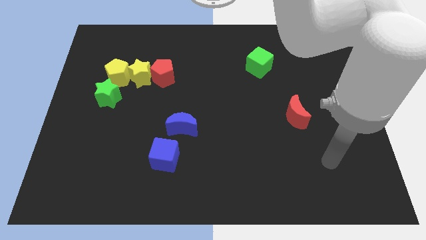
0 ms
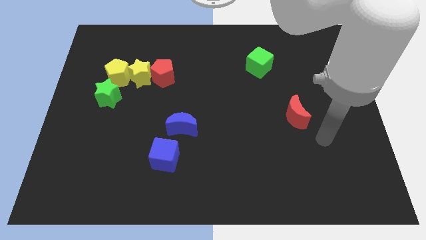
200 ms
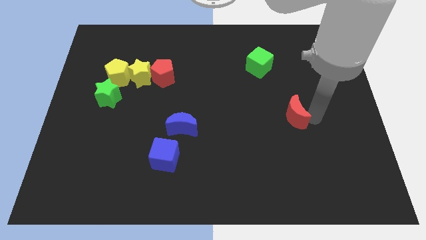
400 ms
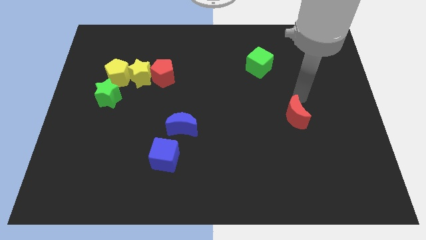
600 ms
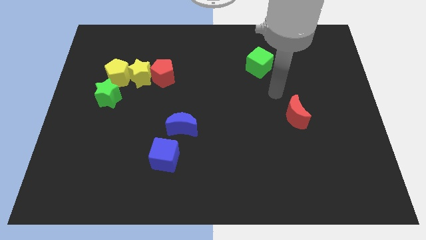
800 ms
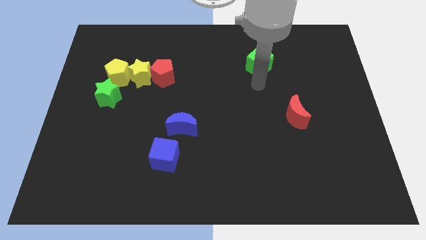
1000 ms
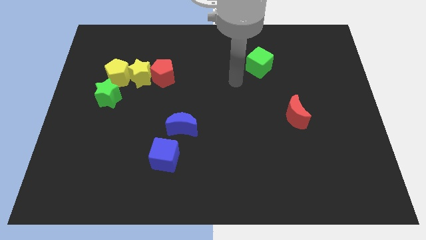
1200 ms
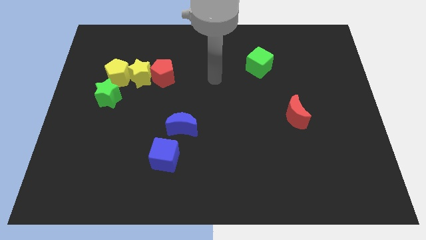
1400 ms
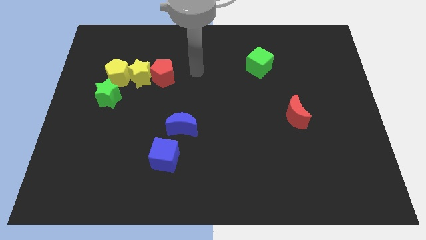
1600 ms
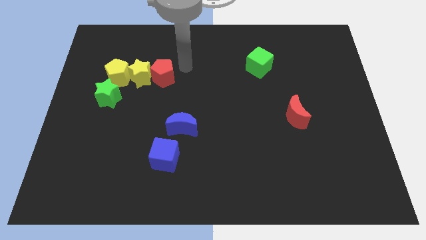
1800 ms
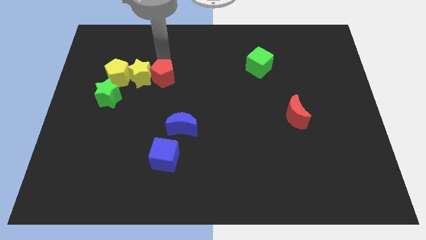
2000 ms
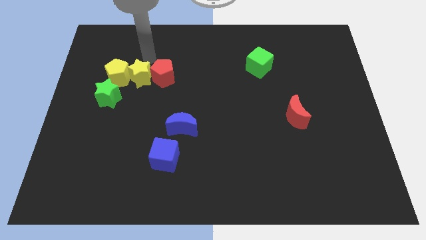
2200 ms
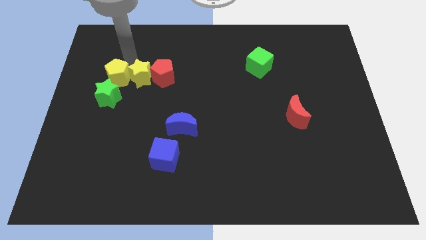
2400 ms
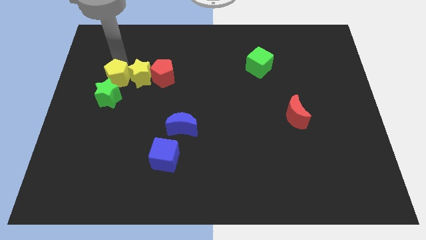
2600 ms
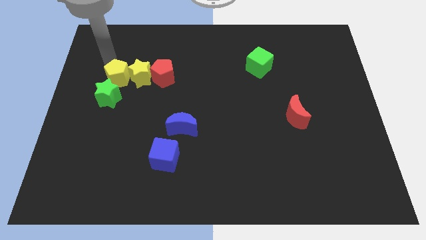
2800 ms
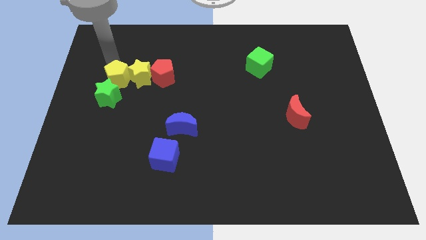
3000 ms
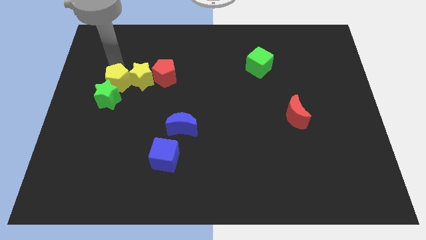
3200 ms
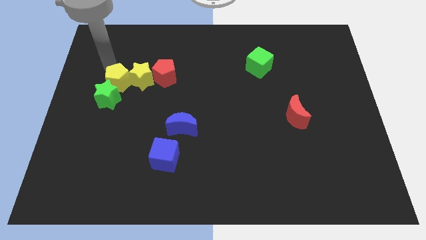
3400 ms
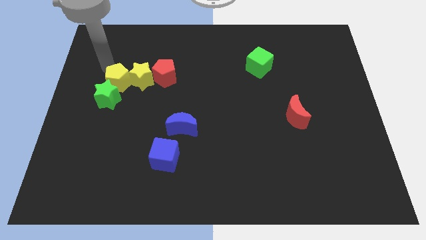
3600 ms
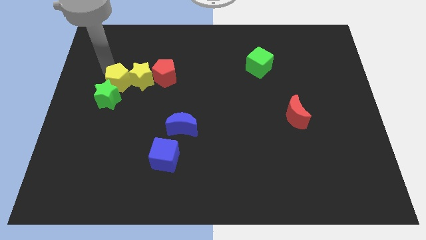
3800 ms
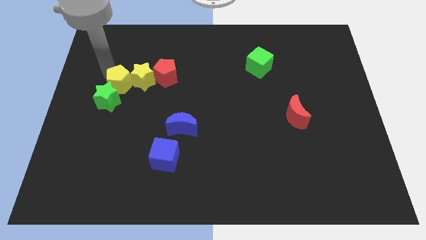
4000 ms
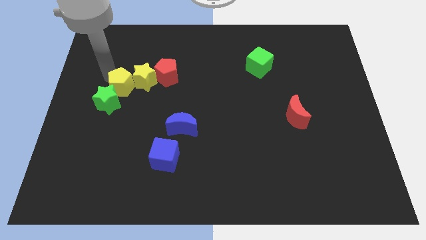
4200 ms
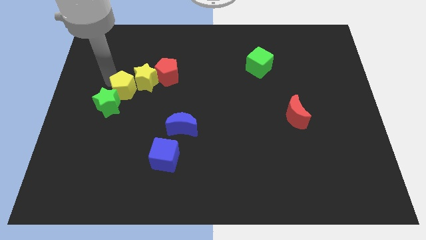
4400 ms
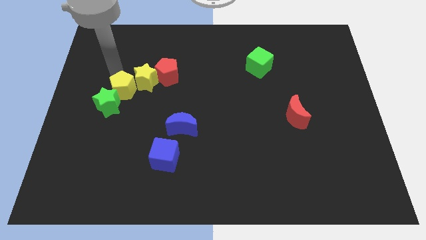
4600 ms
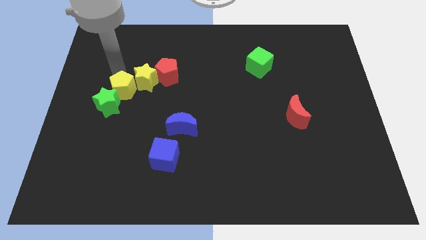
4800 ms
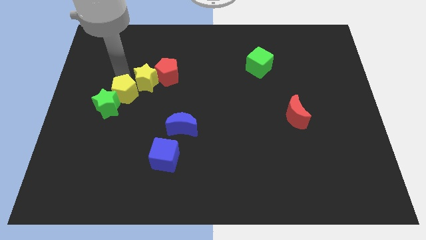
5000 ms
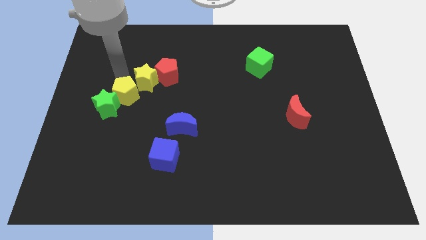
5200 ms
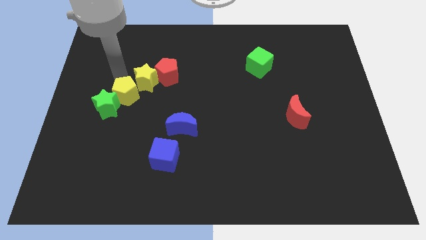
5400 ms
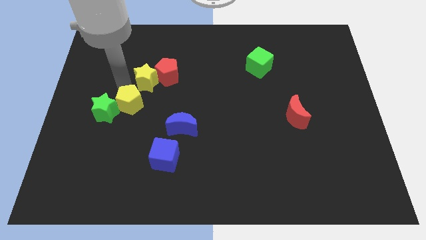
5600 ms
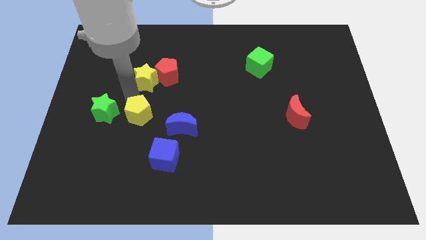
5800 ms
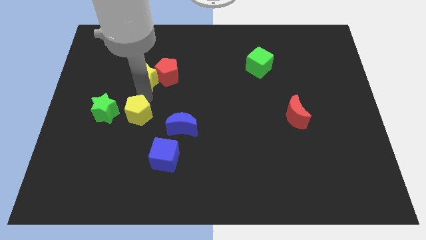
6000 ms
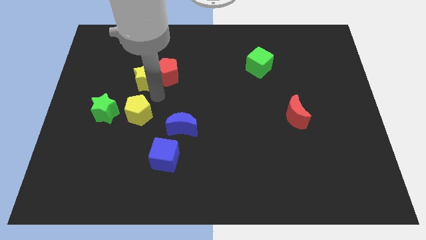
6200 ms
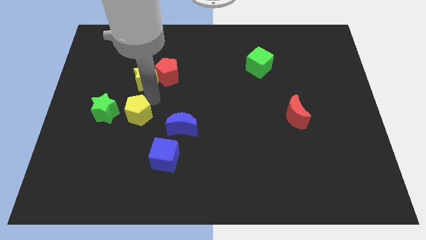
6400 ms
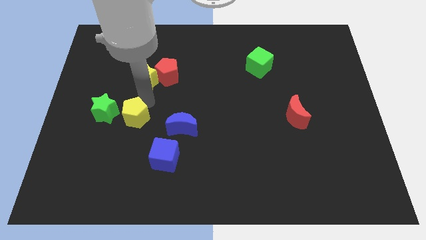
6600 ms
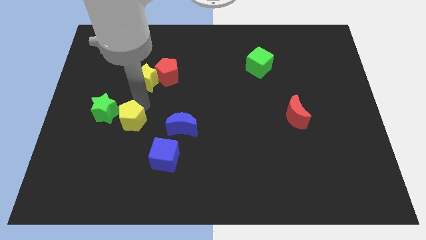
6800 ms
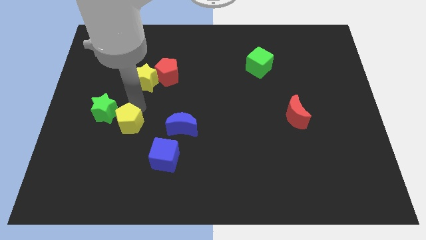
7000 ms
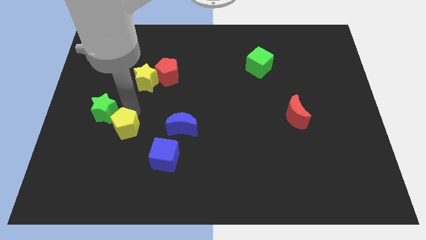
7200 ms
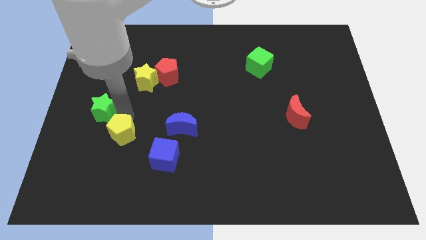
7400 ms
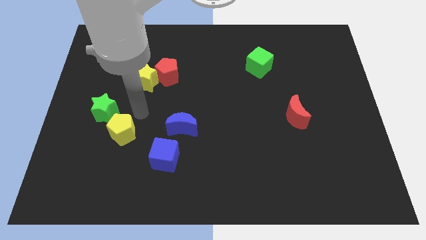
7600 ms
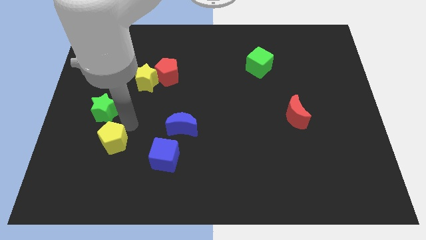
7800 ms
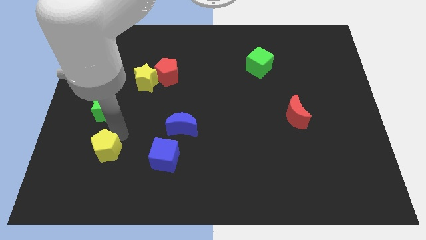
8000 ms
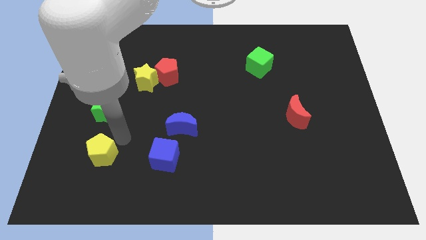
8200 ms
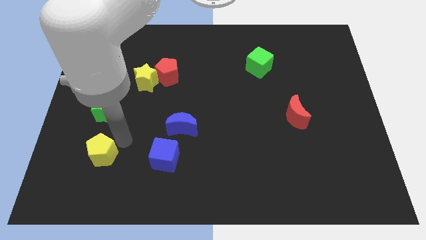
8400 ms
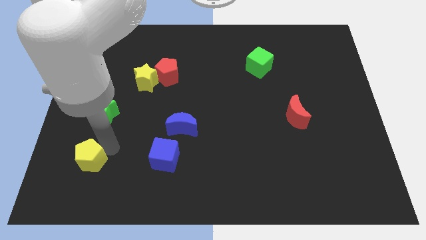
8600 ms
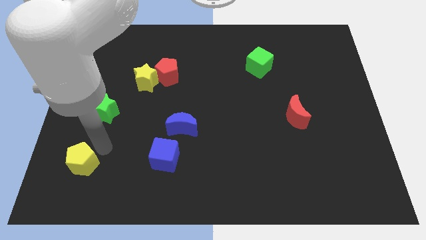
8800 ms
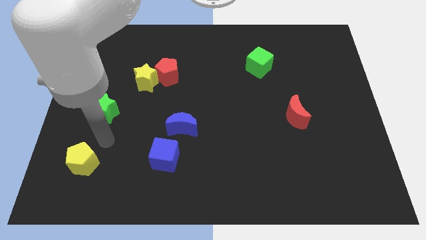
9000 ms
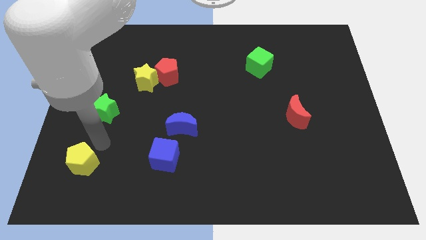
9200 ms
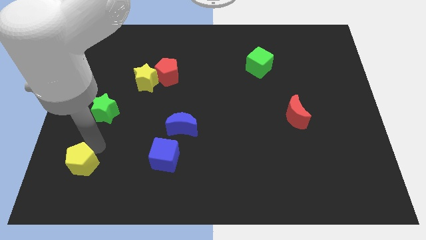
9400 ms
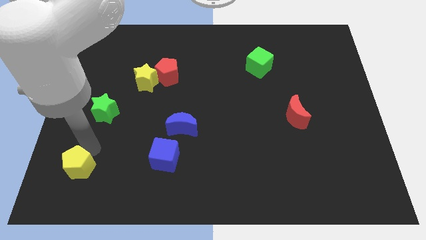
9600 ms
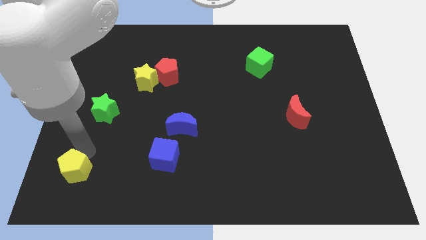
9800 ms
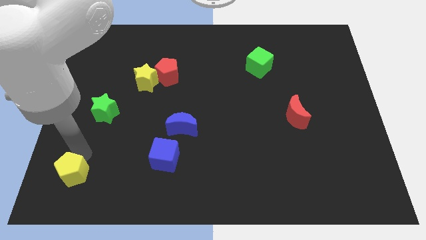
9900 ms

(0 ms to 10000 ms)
move the yellow pentagon to the bottom left of the board

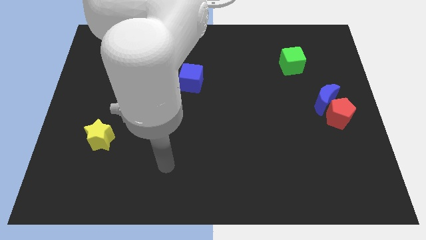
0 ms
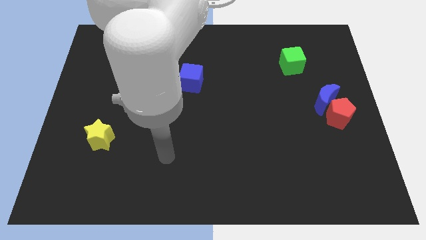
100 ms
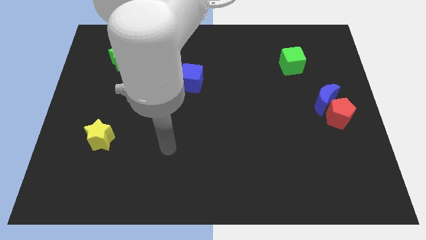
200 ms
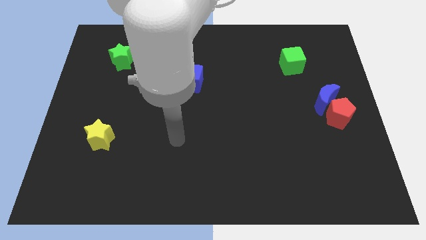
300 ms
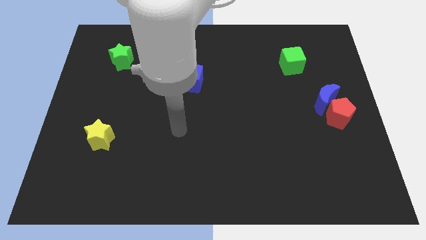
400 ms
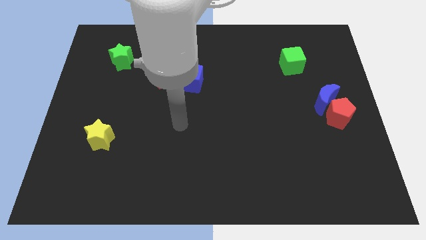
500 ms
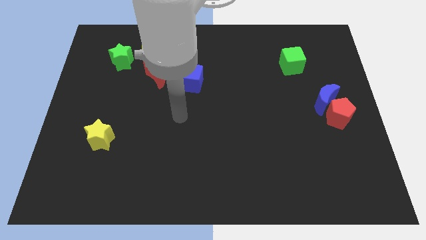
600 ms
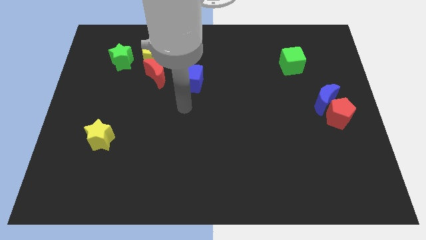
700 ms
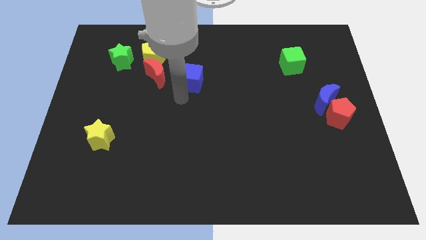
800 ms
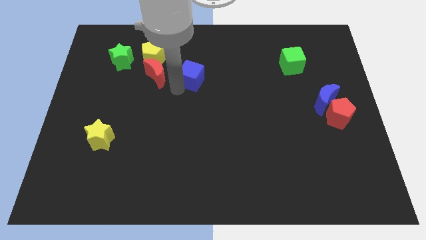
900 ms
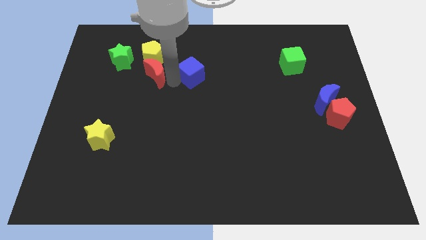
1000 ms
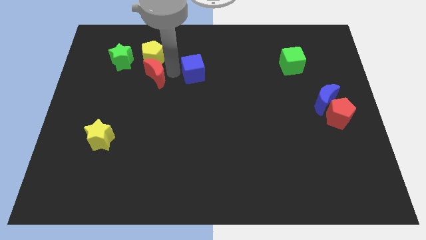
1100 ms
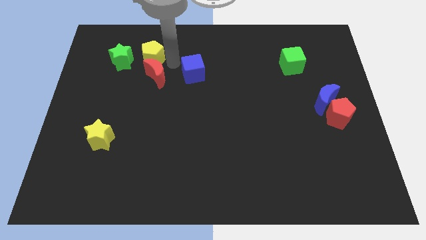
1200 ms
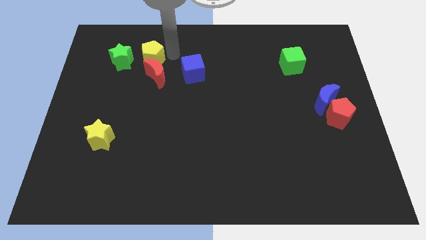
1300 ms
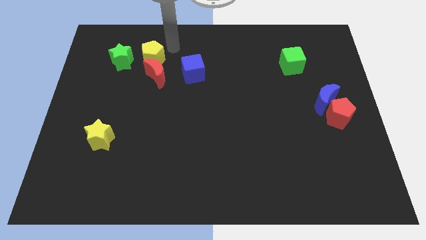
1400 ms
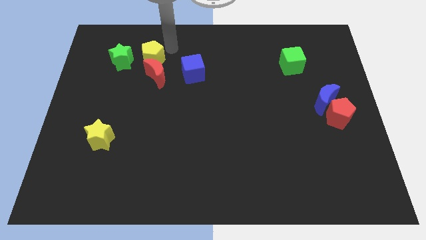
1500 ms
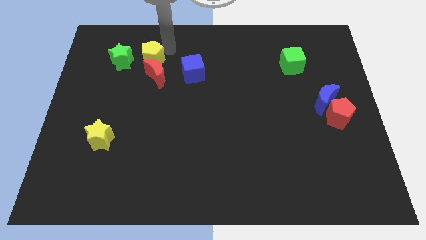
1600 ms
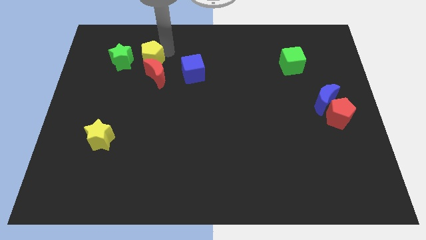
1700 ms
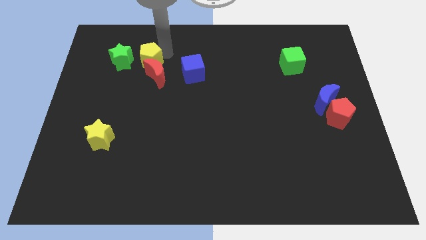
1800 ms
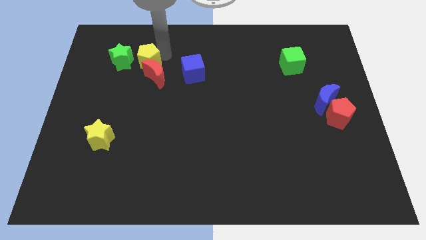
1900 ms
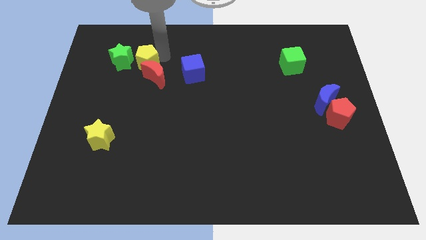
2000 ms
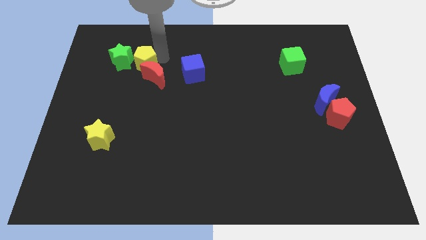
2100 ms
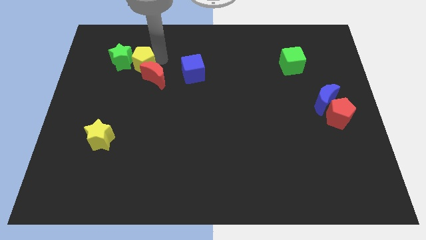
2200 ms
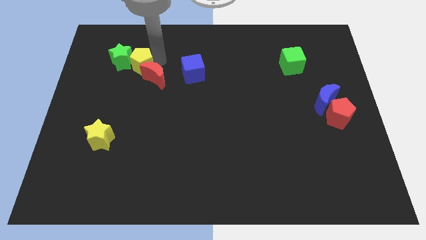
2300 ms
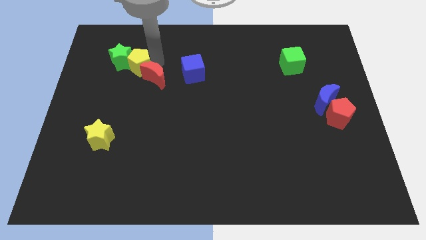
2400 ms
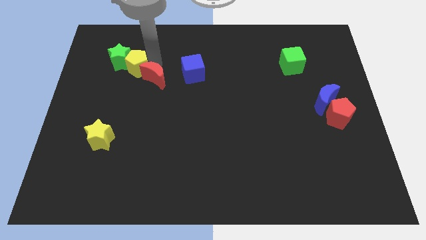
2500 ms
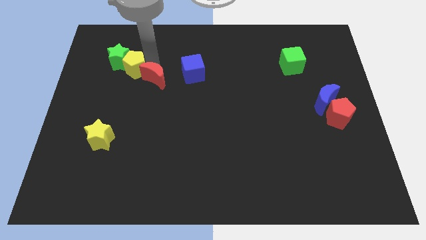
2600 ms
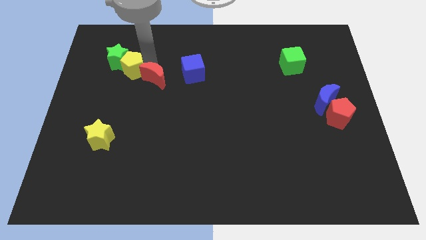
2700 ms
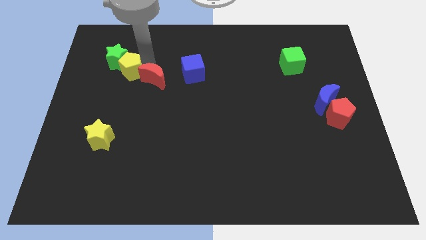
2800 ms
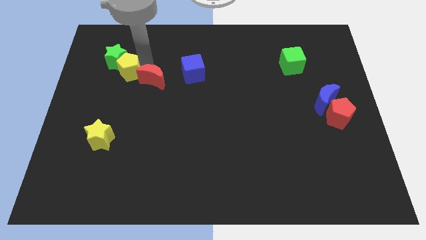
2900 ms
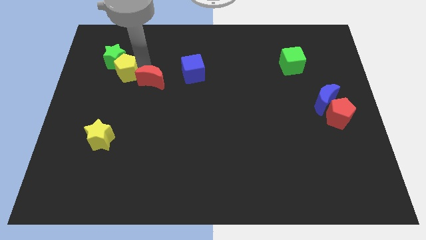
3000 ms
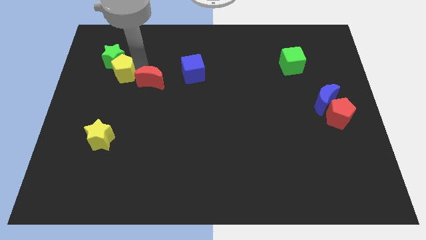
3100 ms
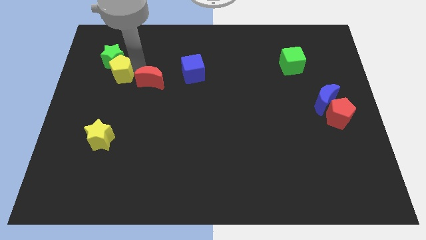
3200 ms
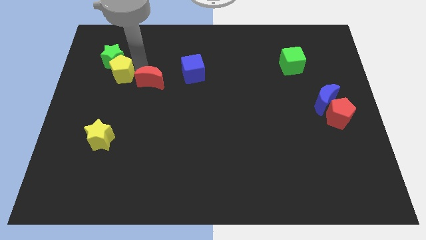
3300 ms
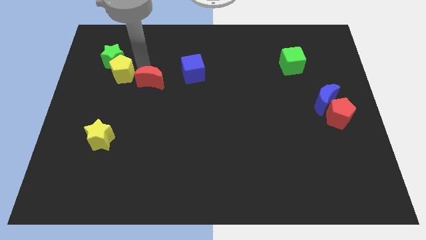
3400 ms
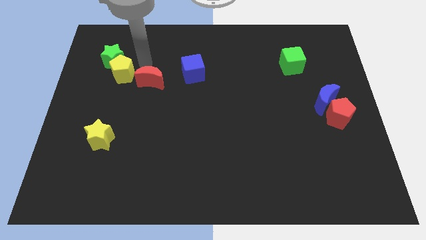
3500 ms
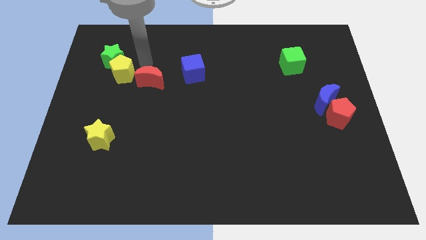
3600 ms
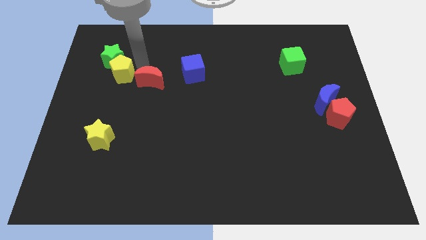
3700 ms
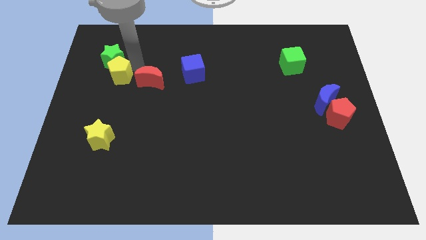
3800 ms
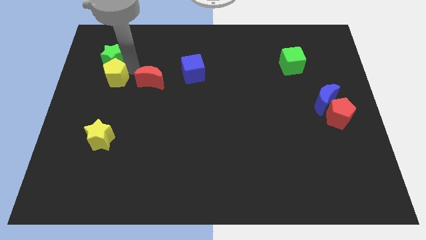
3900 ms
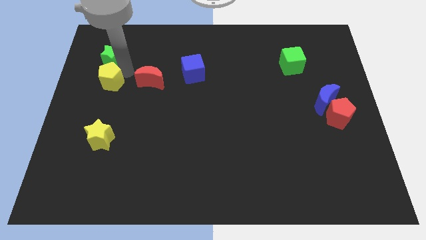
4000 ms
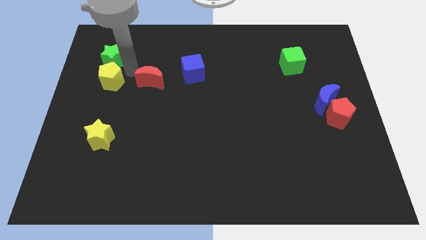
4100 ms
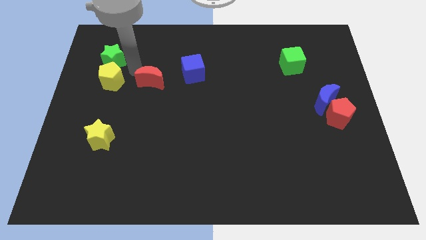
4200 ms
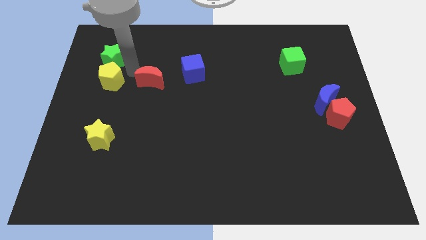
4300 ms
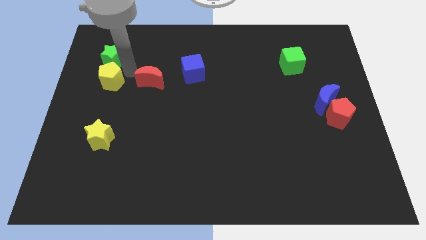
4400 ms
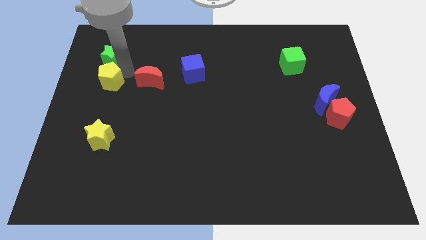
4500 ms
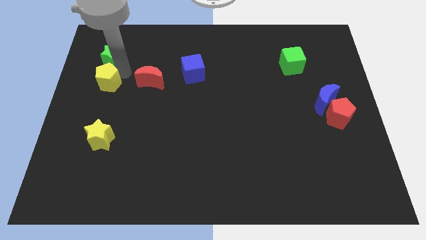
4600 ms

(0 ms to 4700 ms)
move the yellow pentagon to the left side of the board
